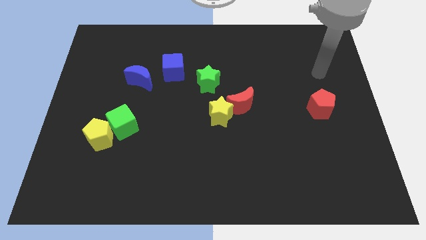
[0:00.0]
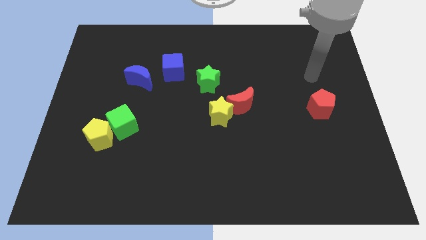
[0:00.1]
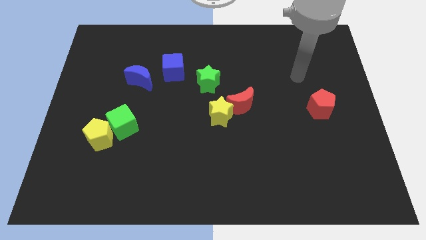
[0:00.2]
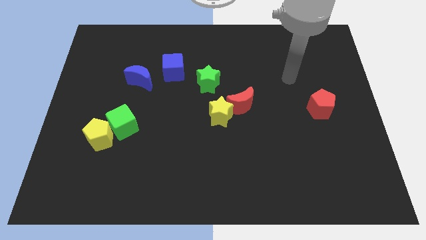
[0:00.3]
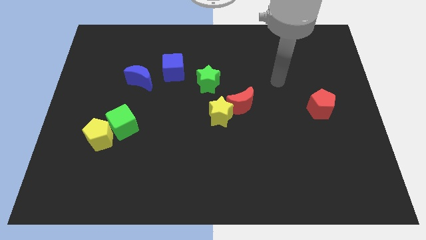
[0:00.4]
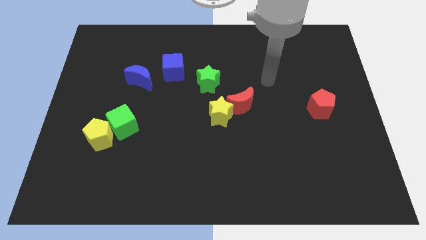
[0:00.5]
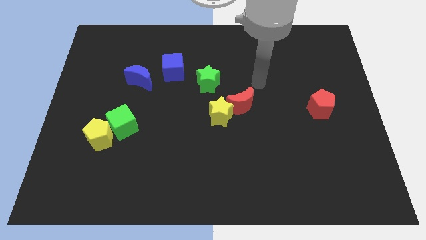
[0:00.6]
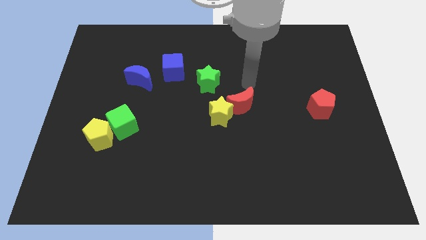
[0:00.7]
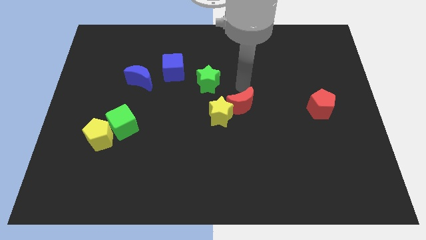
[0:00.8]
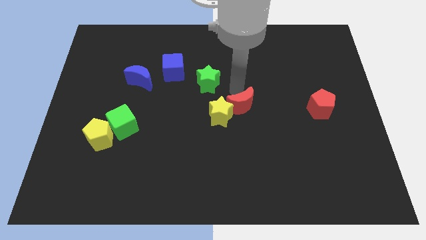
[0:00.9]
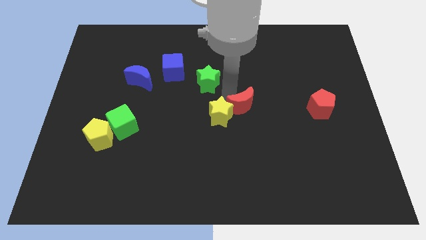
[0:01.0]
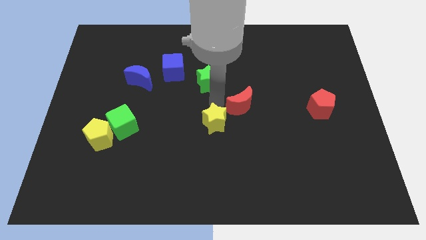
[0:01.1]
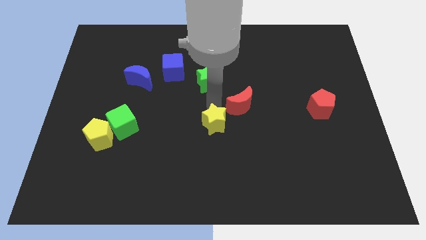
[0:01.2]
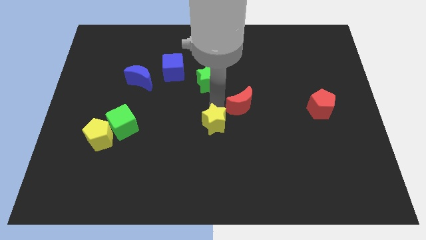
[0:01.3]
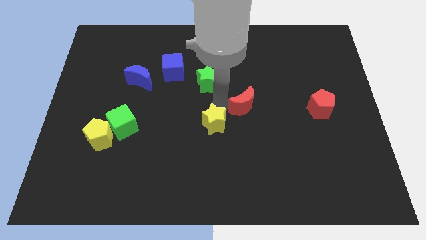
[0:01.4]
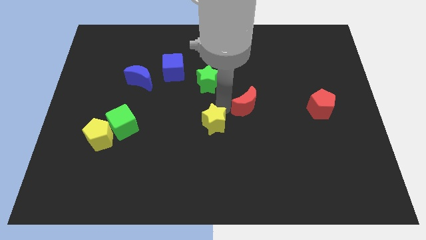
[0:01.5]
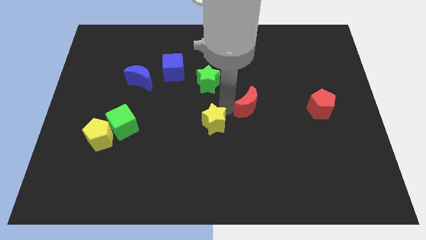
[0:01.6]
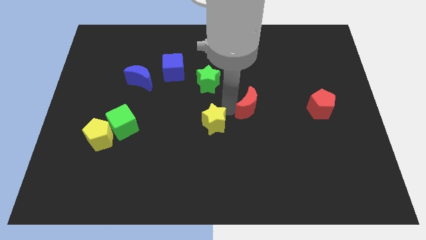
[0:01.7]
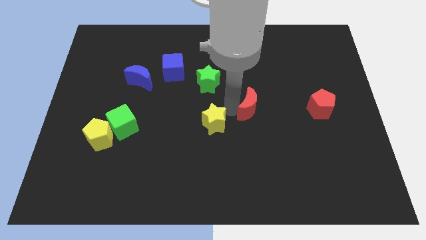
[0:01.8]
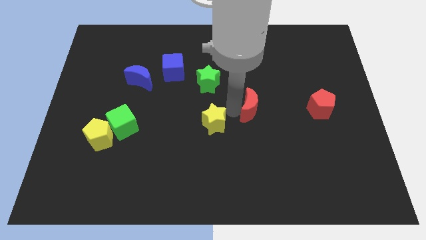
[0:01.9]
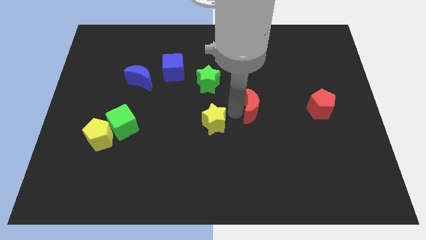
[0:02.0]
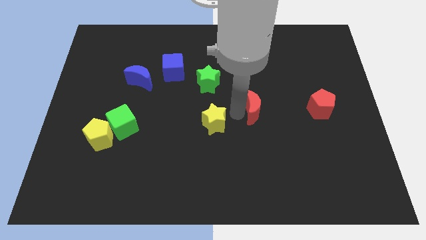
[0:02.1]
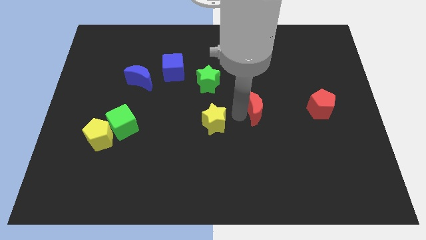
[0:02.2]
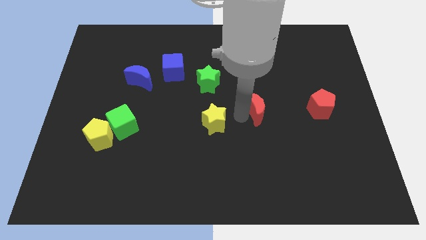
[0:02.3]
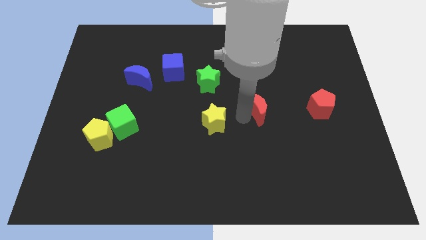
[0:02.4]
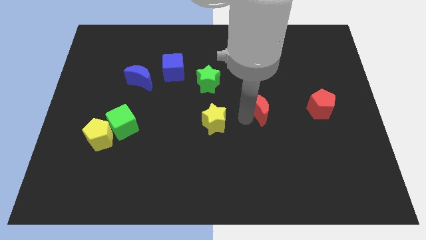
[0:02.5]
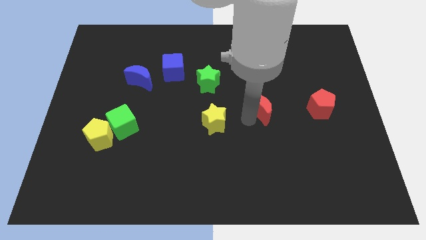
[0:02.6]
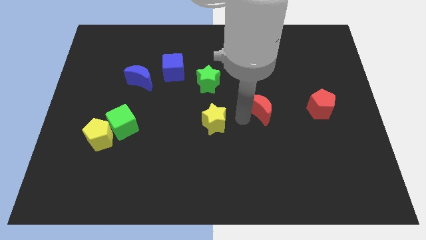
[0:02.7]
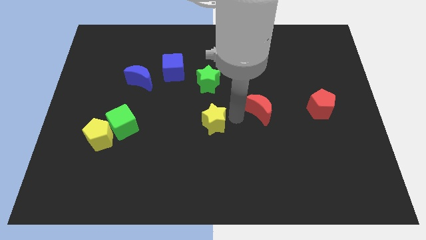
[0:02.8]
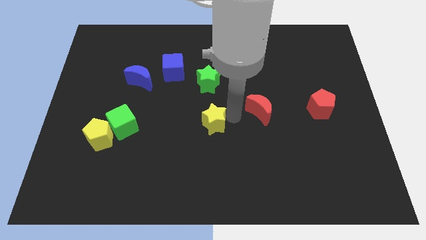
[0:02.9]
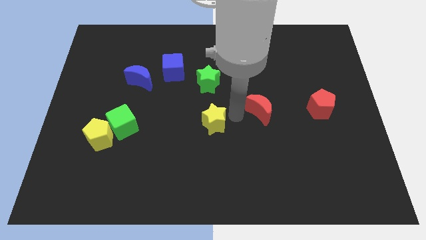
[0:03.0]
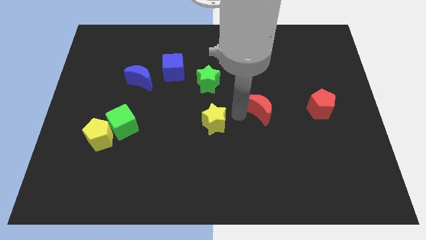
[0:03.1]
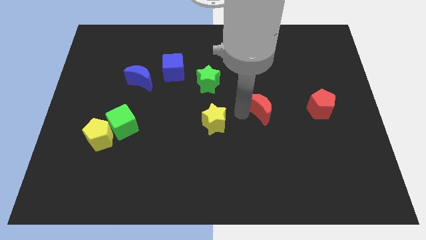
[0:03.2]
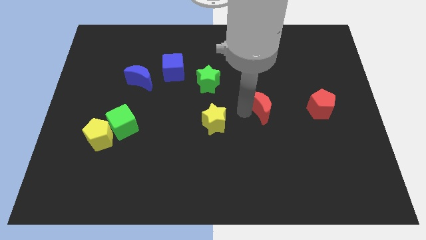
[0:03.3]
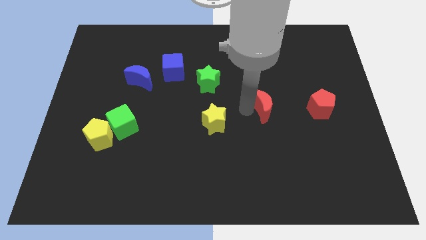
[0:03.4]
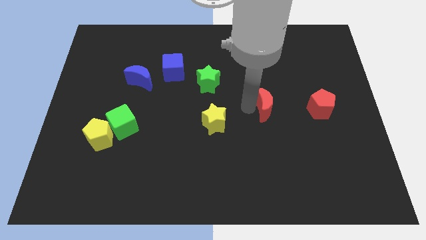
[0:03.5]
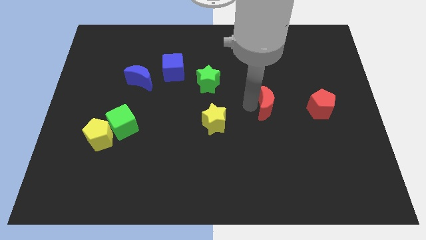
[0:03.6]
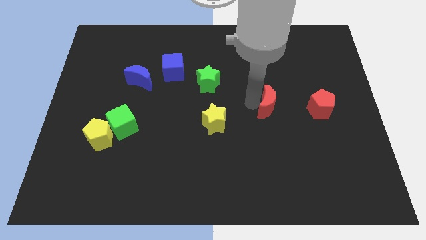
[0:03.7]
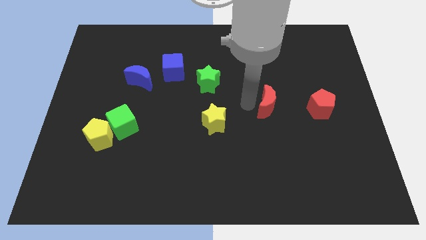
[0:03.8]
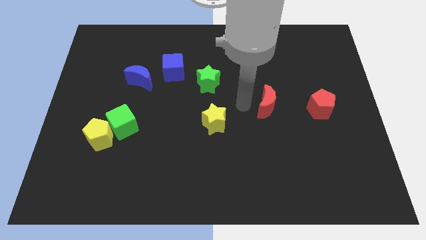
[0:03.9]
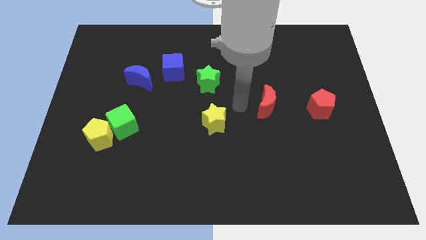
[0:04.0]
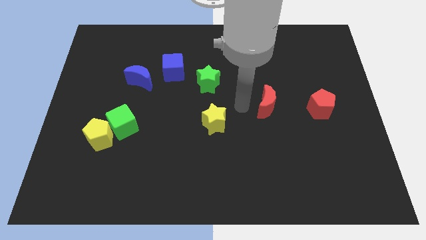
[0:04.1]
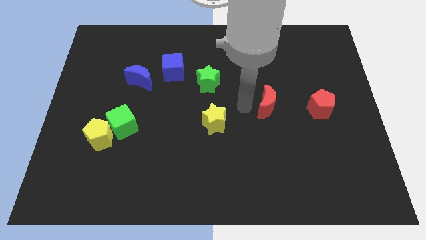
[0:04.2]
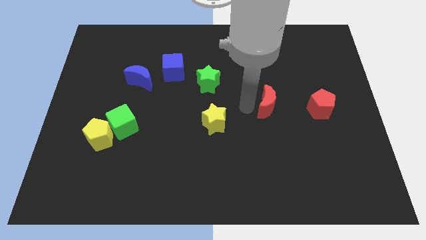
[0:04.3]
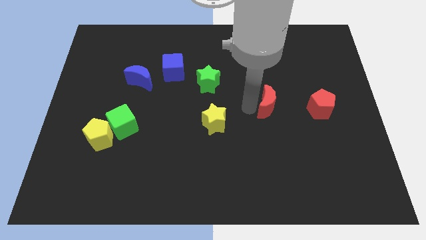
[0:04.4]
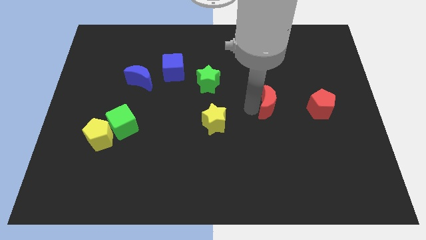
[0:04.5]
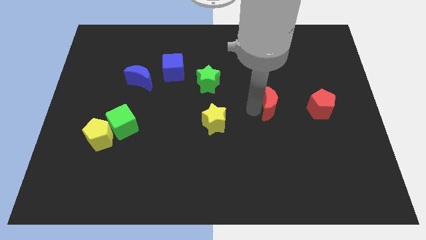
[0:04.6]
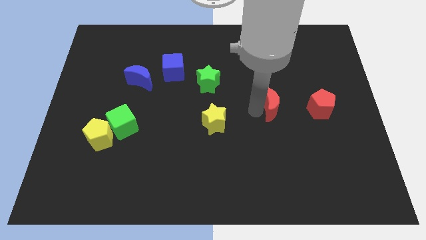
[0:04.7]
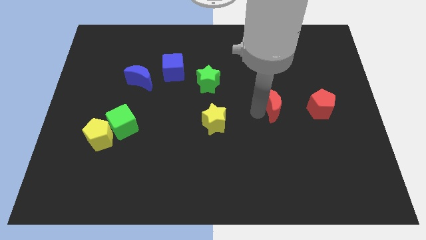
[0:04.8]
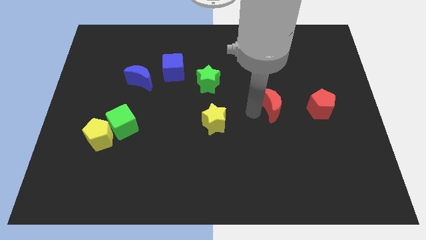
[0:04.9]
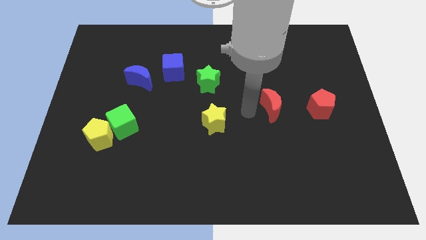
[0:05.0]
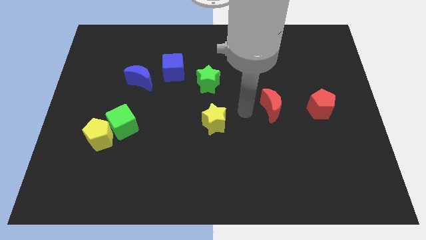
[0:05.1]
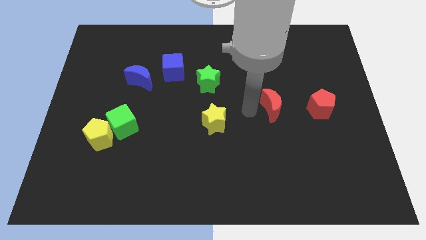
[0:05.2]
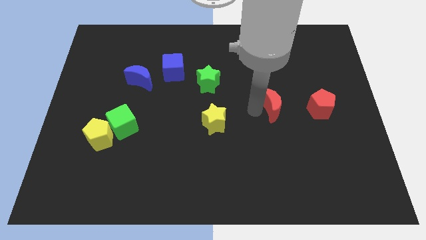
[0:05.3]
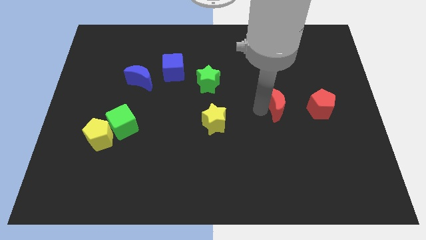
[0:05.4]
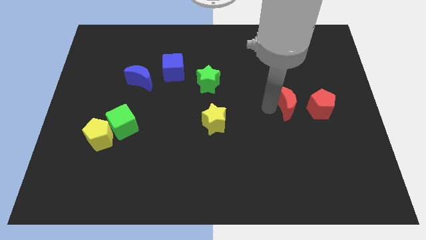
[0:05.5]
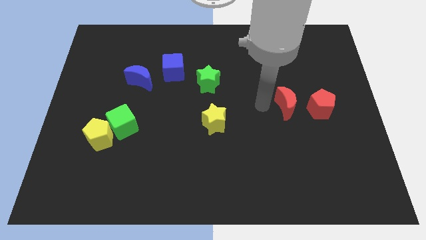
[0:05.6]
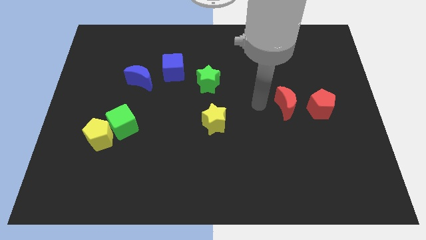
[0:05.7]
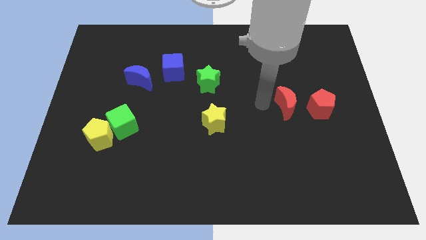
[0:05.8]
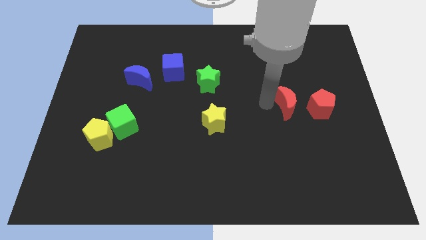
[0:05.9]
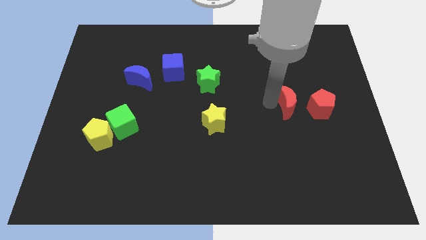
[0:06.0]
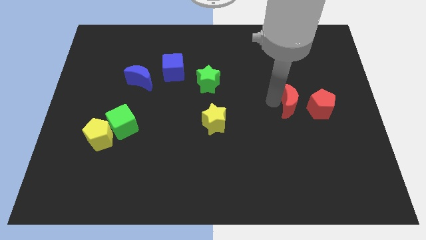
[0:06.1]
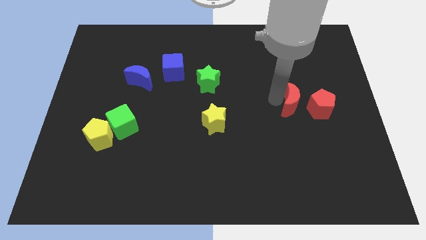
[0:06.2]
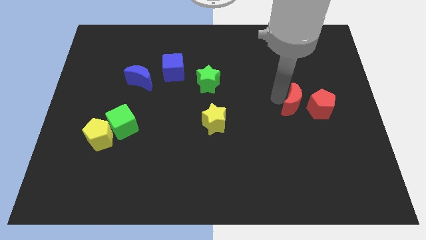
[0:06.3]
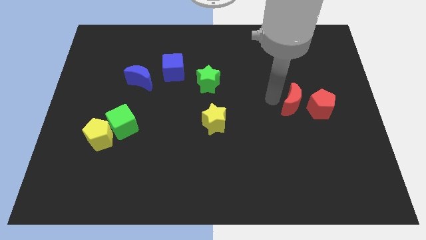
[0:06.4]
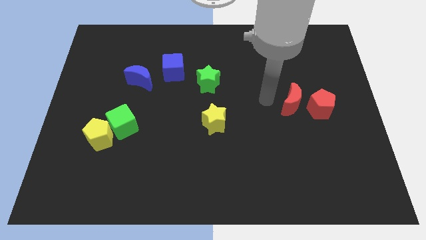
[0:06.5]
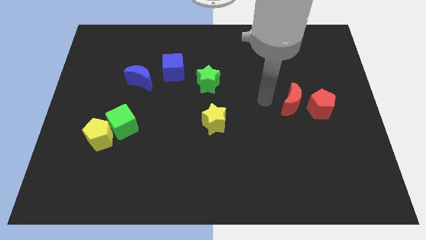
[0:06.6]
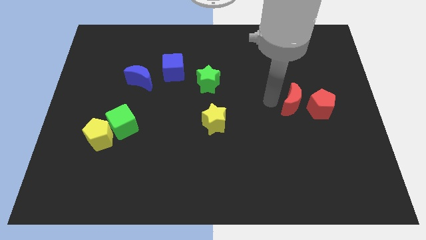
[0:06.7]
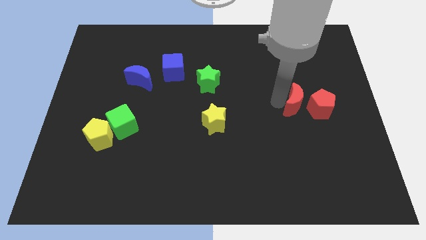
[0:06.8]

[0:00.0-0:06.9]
slide the red moon next to the red pentagon
